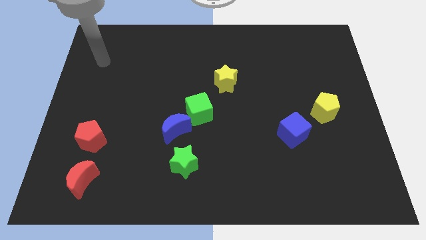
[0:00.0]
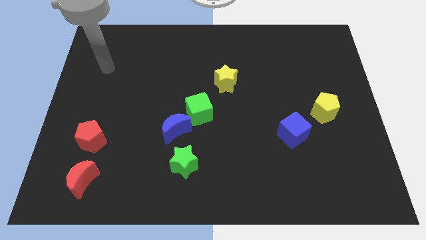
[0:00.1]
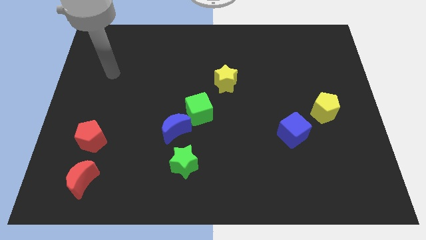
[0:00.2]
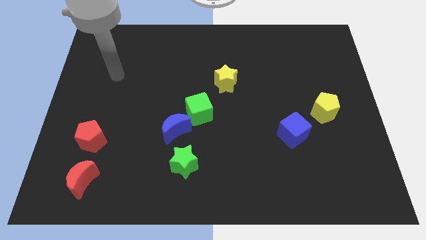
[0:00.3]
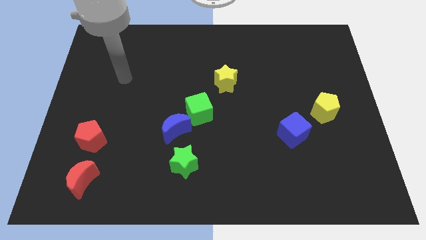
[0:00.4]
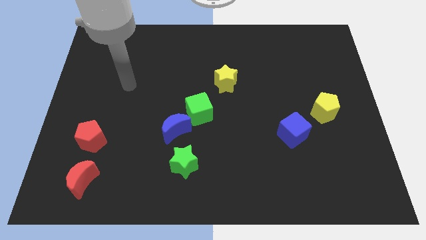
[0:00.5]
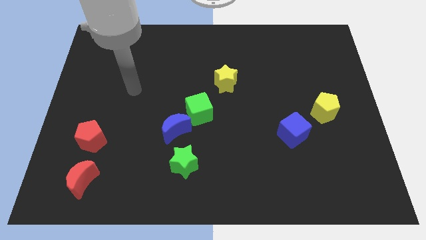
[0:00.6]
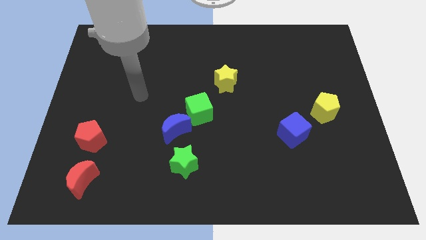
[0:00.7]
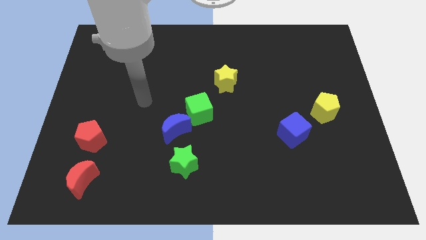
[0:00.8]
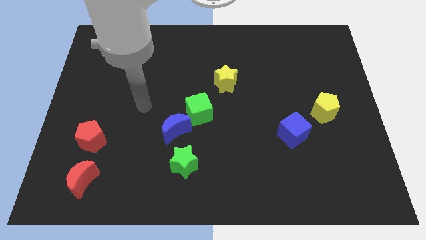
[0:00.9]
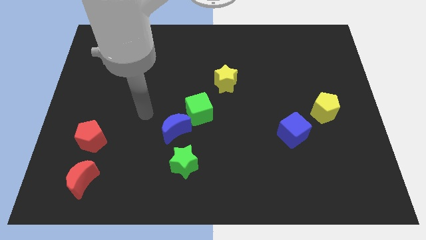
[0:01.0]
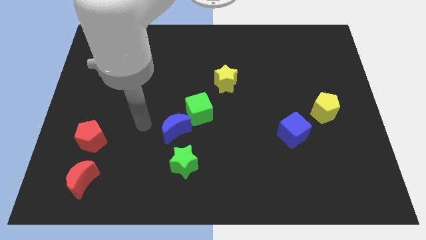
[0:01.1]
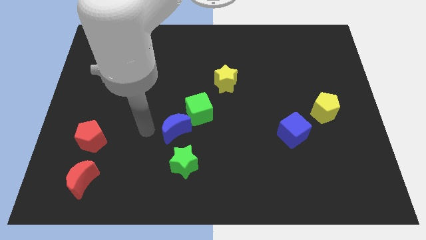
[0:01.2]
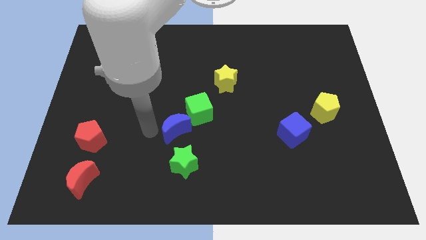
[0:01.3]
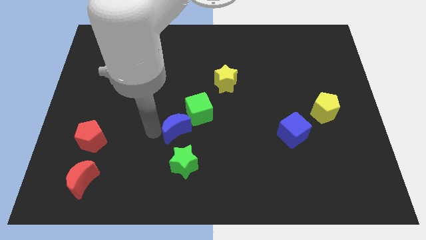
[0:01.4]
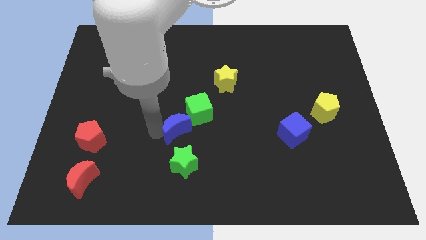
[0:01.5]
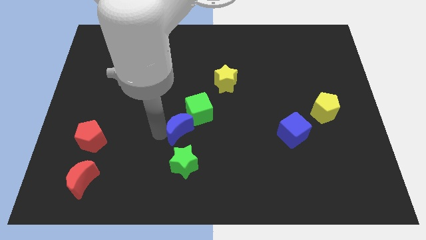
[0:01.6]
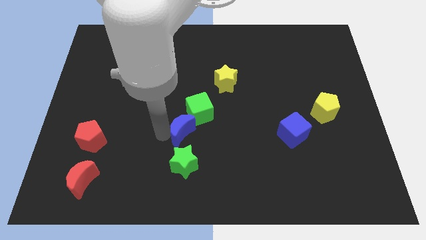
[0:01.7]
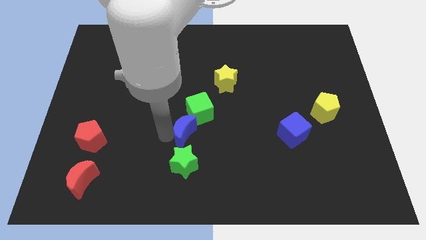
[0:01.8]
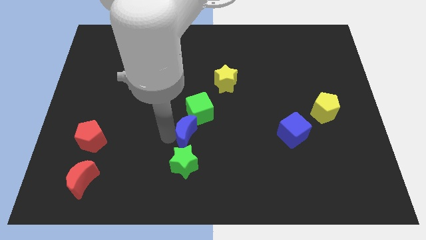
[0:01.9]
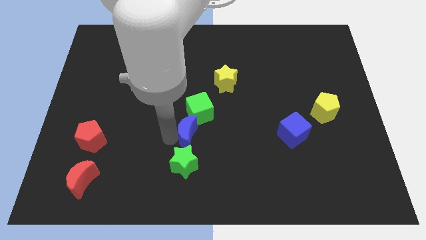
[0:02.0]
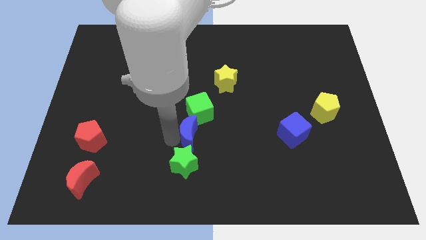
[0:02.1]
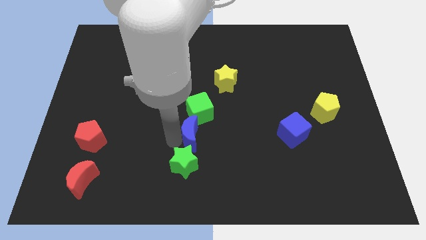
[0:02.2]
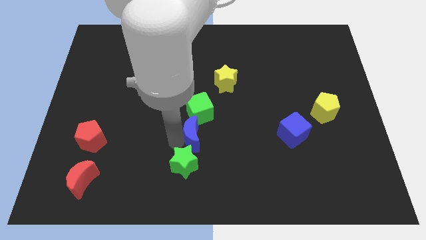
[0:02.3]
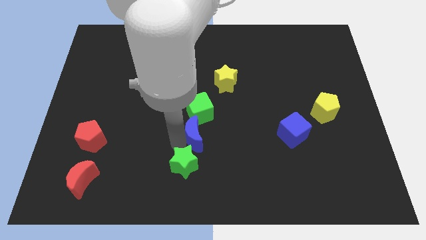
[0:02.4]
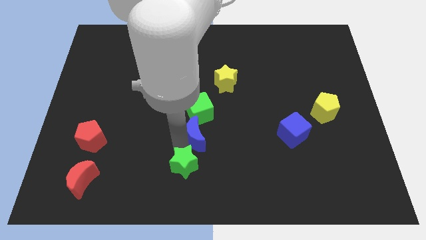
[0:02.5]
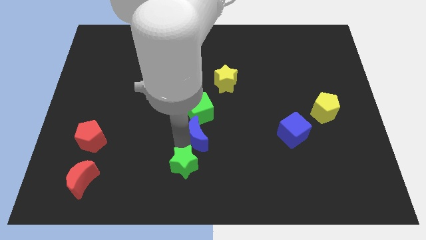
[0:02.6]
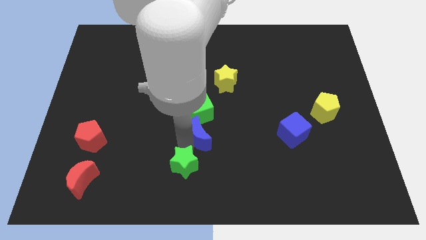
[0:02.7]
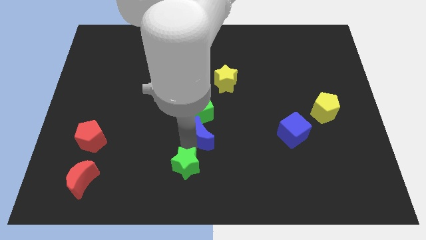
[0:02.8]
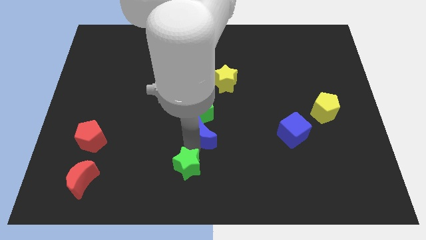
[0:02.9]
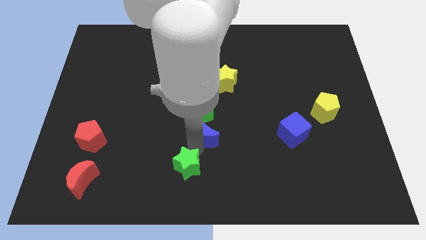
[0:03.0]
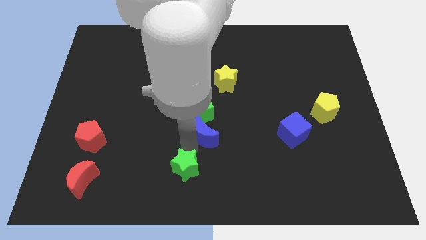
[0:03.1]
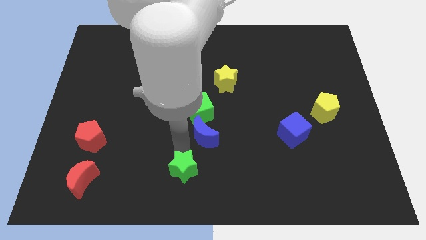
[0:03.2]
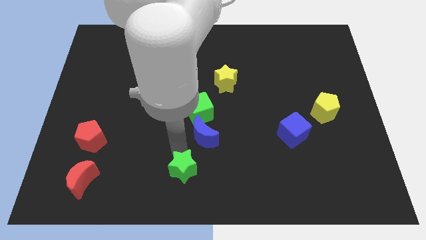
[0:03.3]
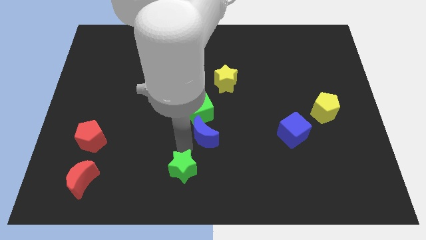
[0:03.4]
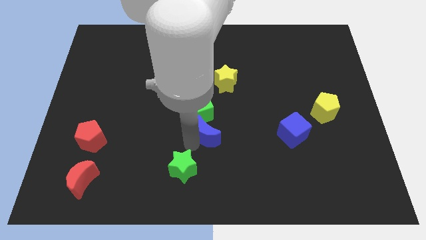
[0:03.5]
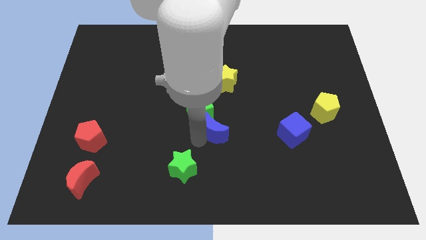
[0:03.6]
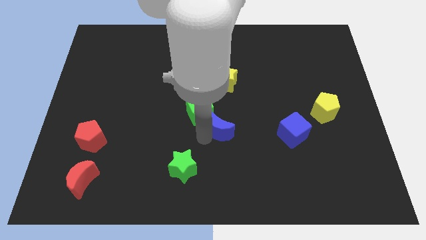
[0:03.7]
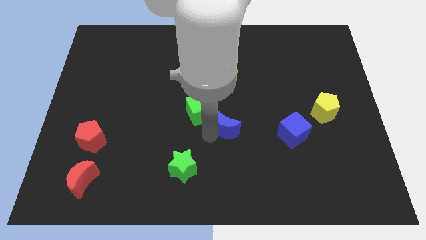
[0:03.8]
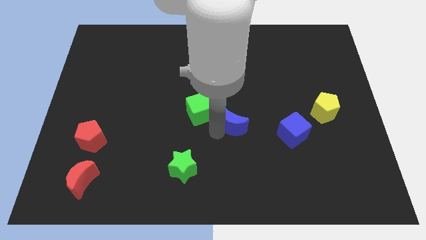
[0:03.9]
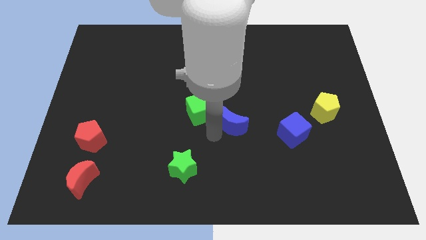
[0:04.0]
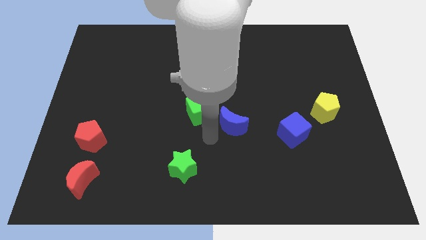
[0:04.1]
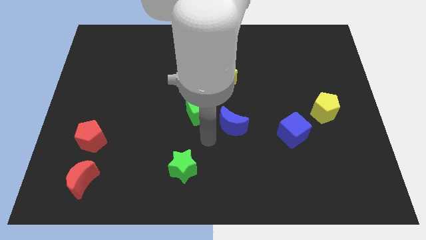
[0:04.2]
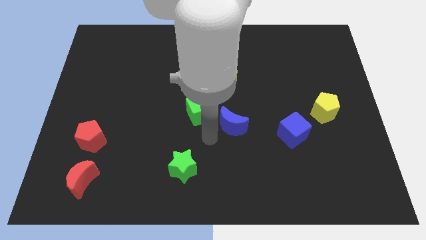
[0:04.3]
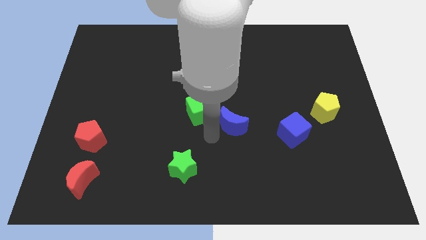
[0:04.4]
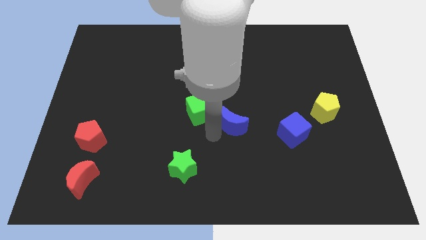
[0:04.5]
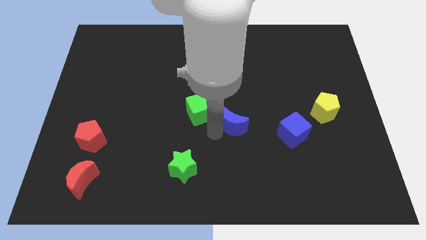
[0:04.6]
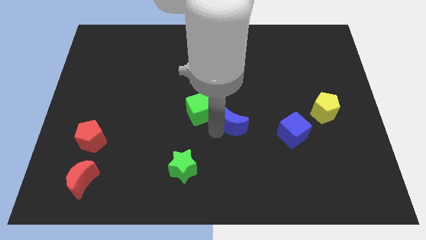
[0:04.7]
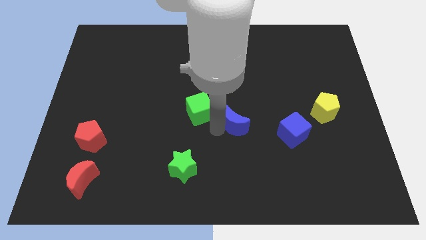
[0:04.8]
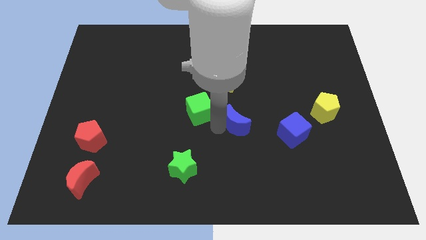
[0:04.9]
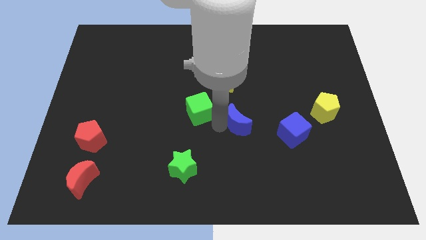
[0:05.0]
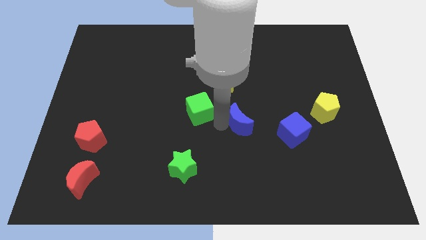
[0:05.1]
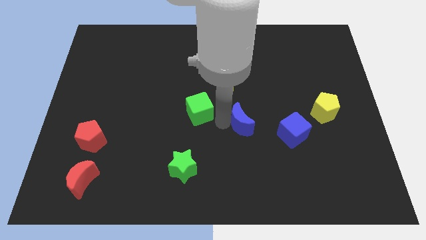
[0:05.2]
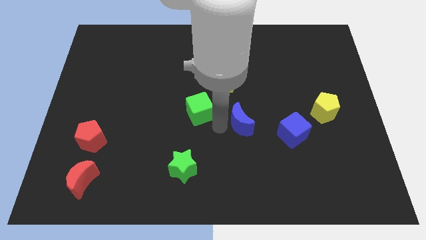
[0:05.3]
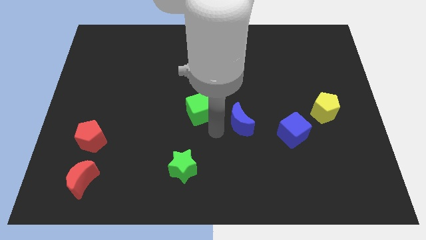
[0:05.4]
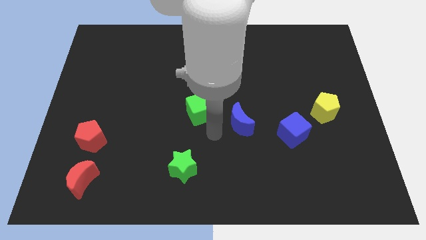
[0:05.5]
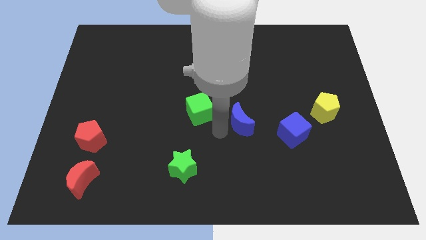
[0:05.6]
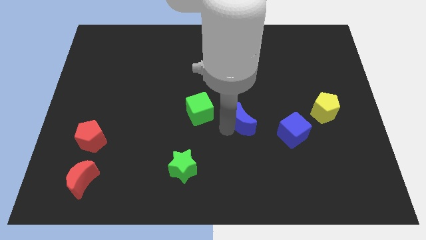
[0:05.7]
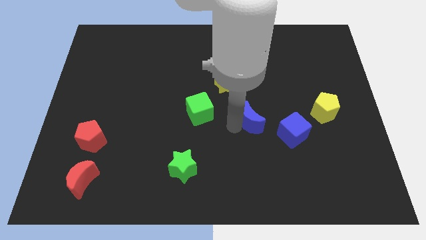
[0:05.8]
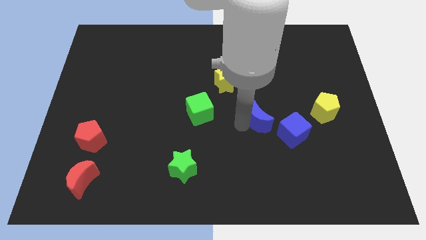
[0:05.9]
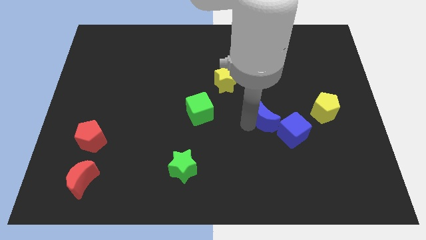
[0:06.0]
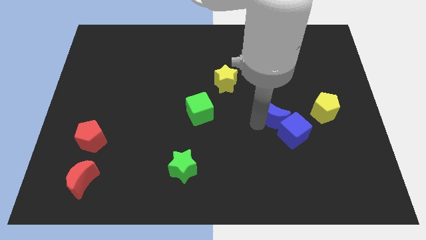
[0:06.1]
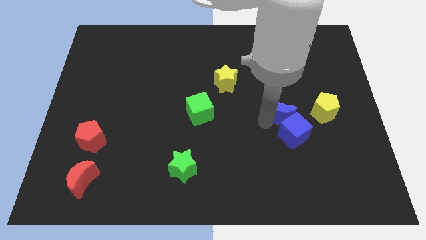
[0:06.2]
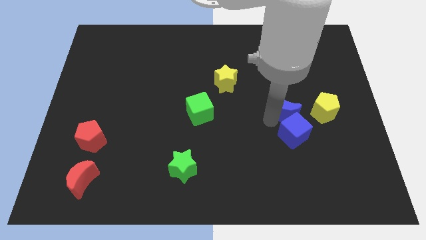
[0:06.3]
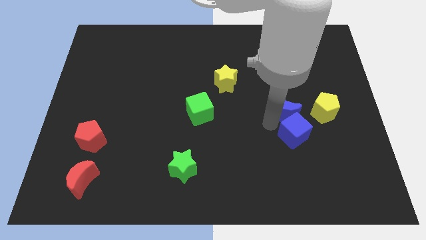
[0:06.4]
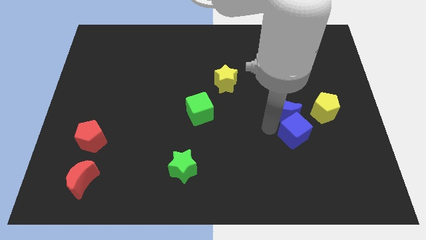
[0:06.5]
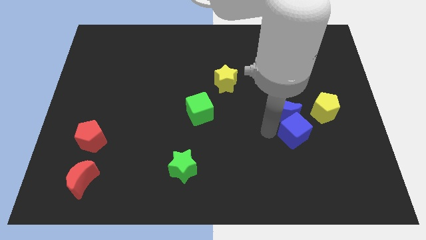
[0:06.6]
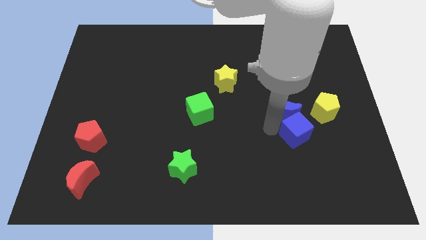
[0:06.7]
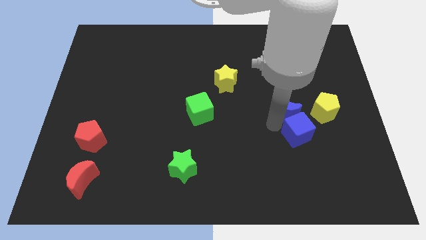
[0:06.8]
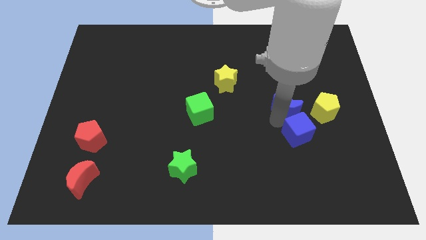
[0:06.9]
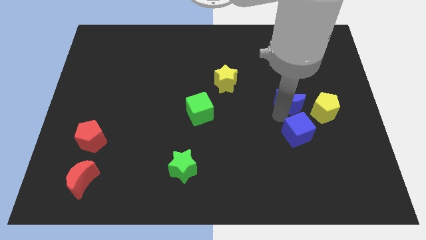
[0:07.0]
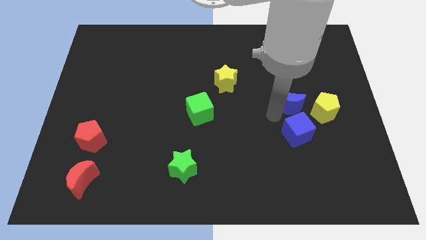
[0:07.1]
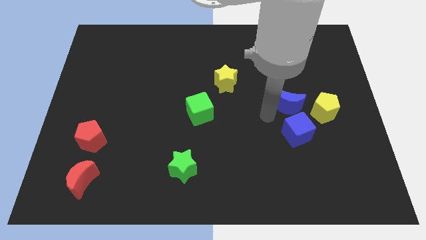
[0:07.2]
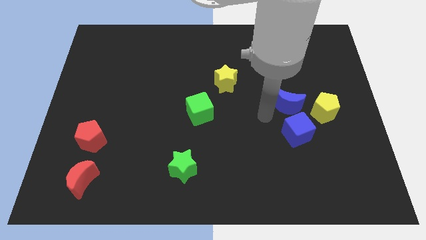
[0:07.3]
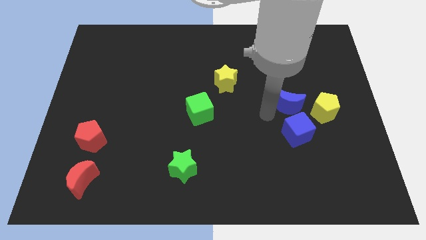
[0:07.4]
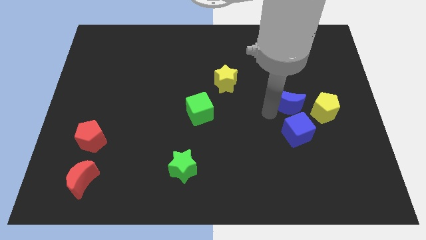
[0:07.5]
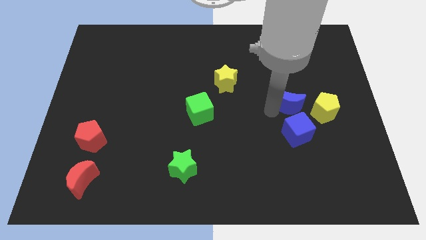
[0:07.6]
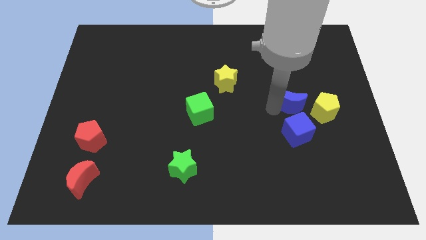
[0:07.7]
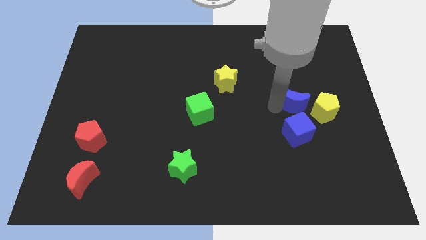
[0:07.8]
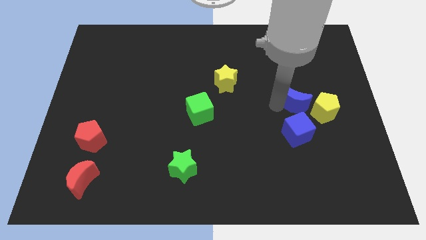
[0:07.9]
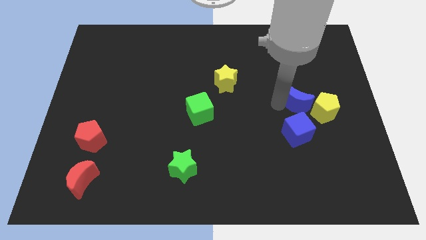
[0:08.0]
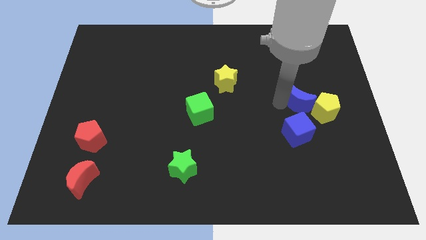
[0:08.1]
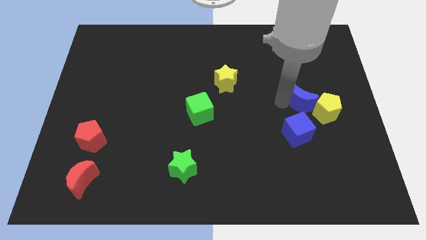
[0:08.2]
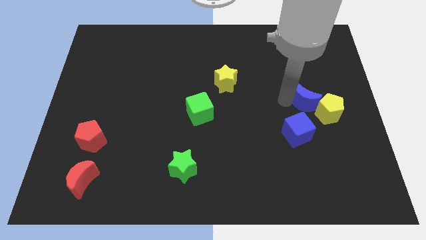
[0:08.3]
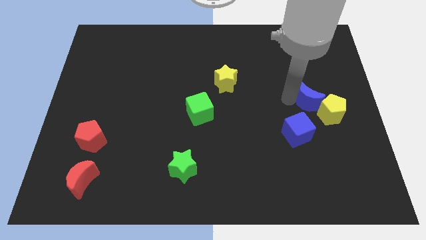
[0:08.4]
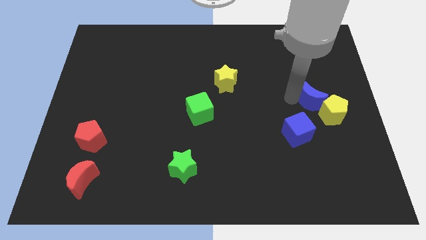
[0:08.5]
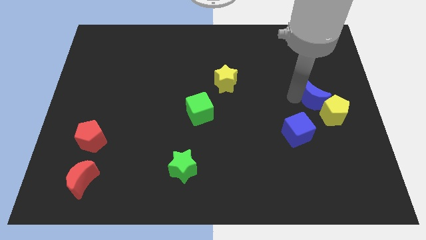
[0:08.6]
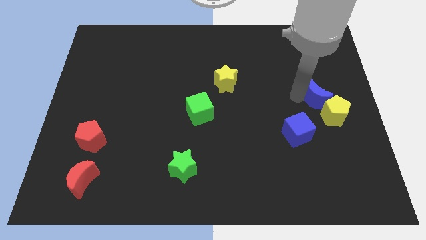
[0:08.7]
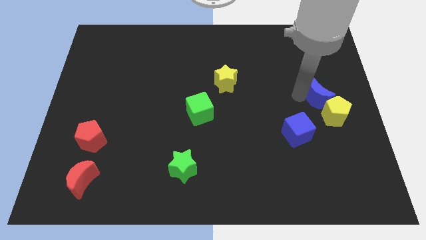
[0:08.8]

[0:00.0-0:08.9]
put the blue moon to the right side
